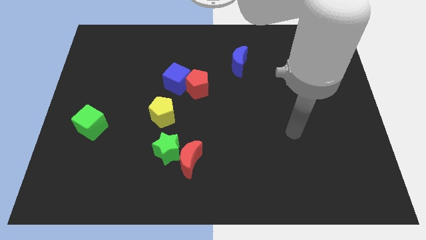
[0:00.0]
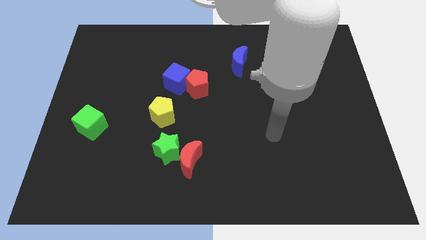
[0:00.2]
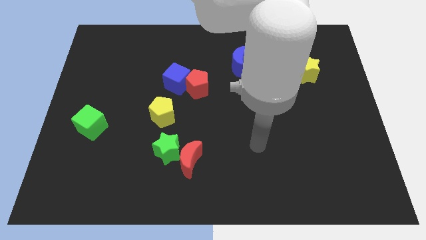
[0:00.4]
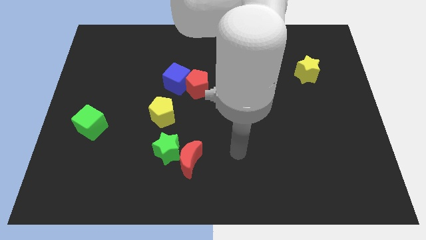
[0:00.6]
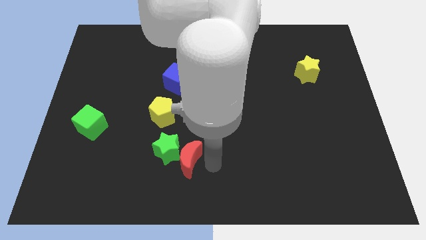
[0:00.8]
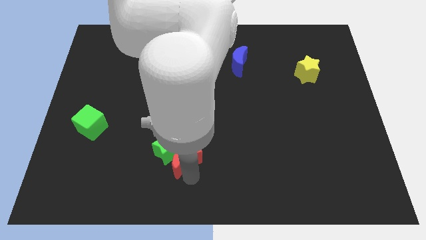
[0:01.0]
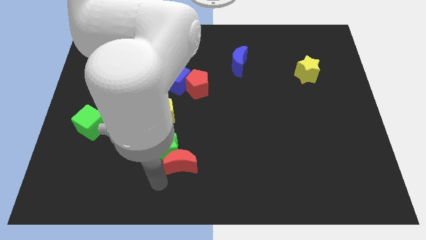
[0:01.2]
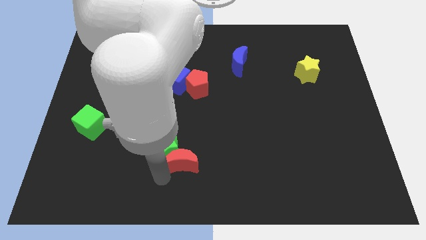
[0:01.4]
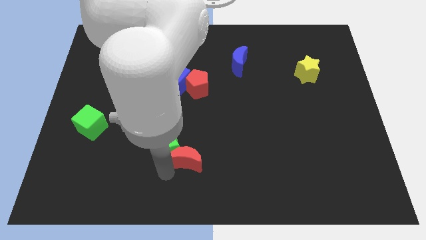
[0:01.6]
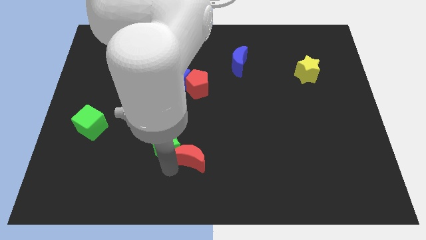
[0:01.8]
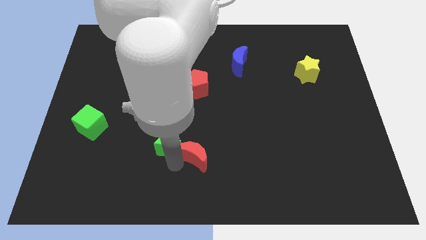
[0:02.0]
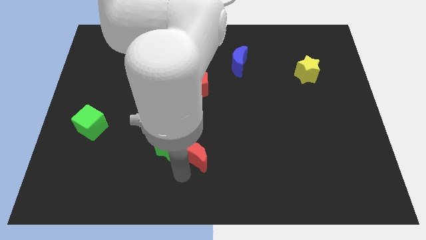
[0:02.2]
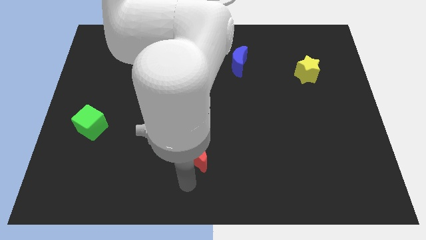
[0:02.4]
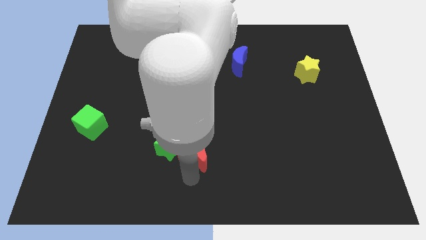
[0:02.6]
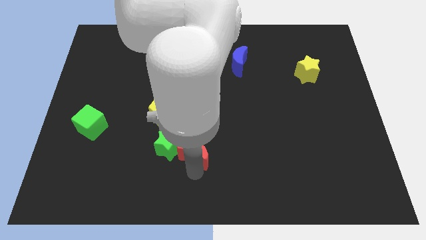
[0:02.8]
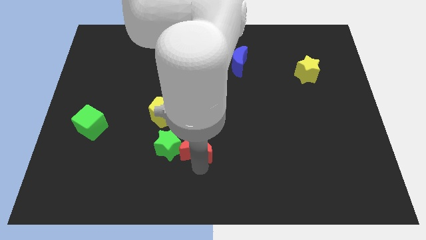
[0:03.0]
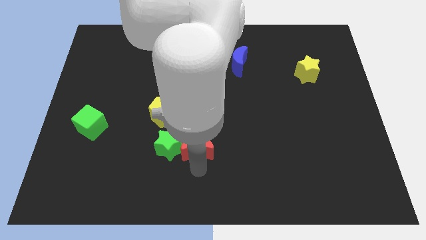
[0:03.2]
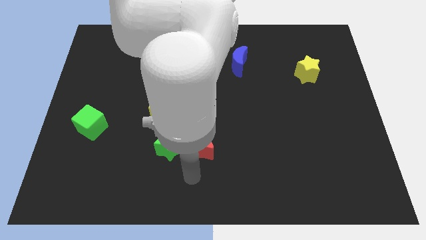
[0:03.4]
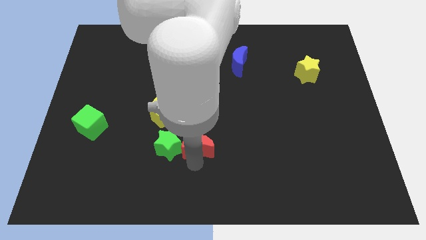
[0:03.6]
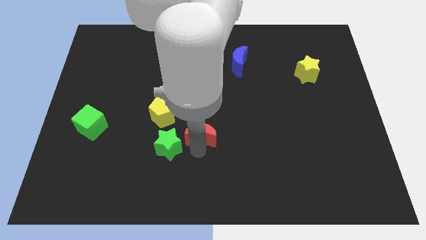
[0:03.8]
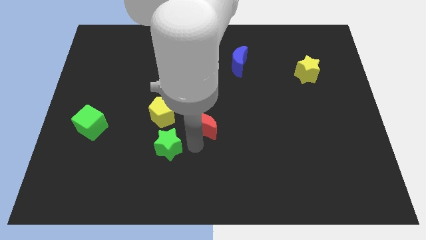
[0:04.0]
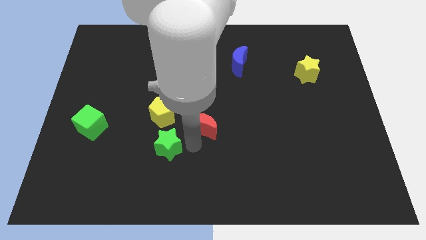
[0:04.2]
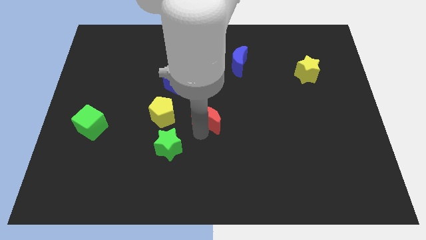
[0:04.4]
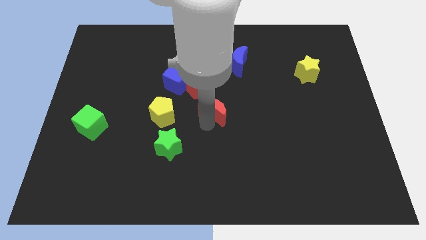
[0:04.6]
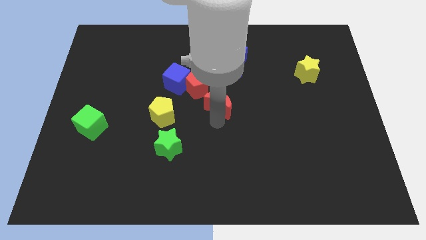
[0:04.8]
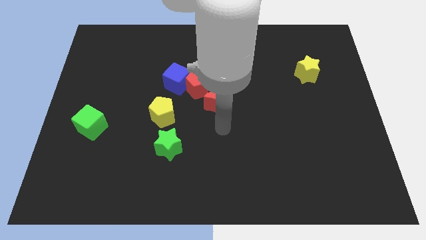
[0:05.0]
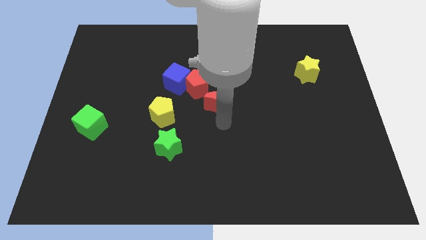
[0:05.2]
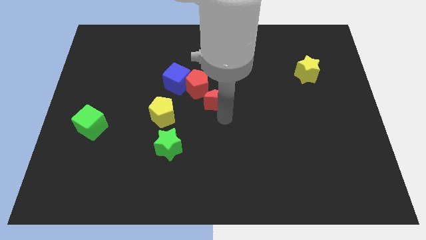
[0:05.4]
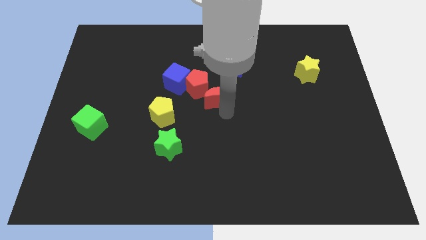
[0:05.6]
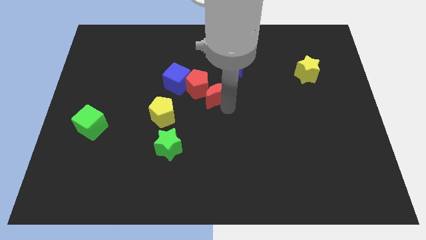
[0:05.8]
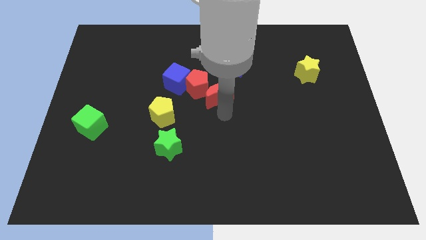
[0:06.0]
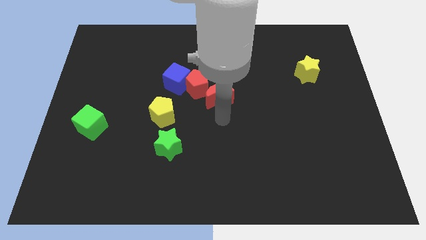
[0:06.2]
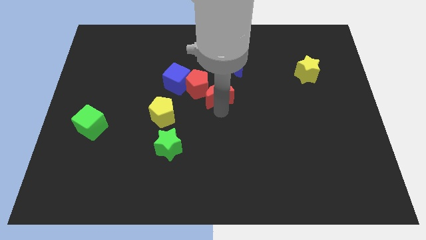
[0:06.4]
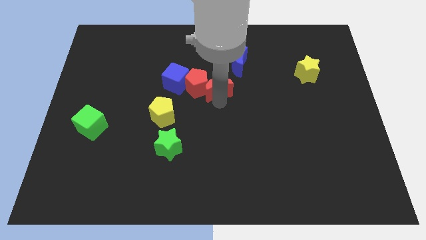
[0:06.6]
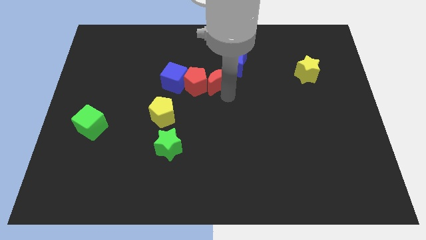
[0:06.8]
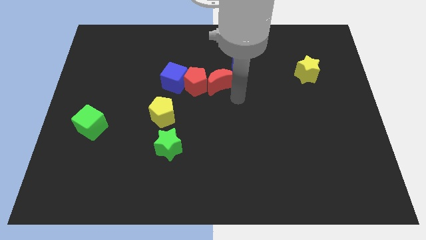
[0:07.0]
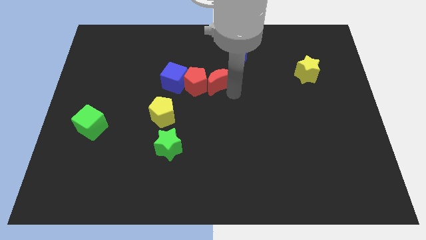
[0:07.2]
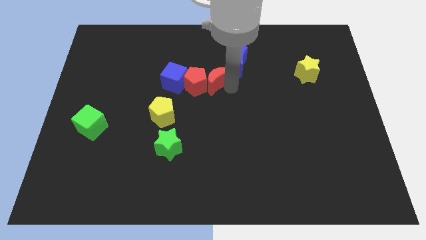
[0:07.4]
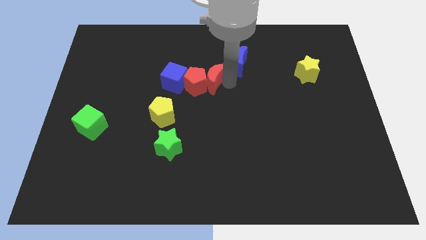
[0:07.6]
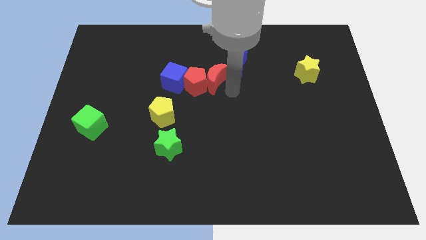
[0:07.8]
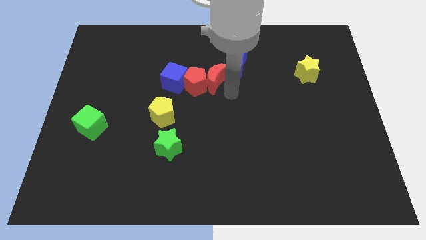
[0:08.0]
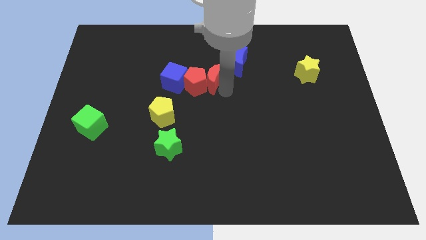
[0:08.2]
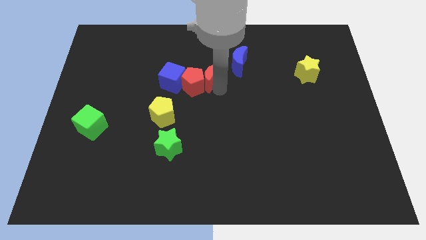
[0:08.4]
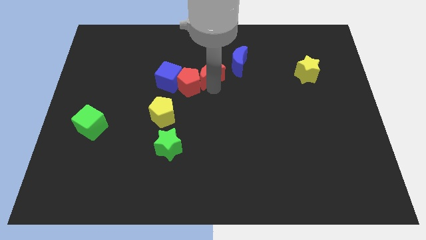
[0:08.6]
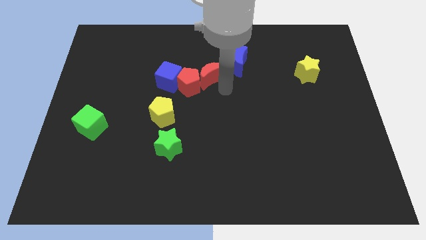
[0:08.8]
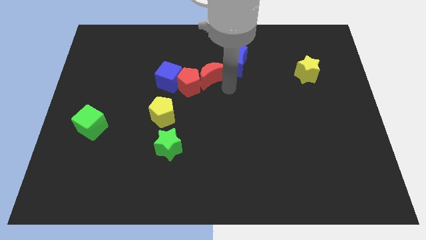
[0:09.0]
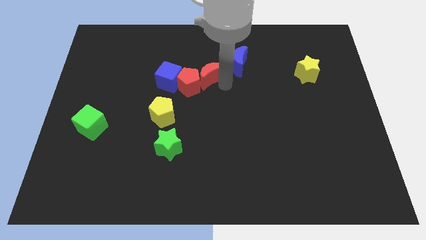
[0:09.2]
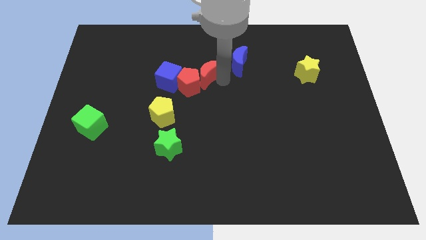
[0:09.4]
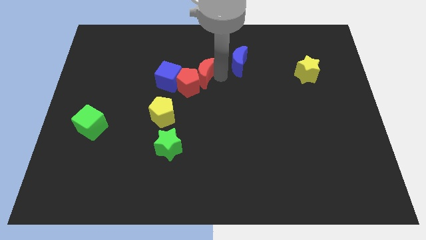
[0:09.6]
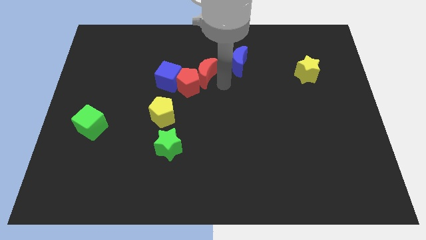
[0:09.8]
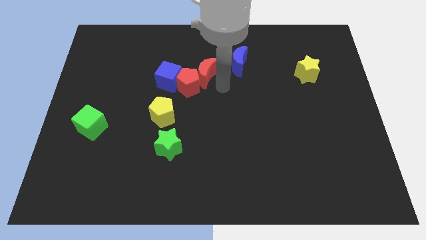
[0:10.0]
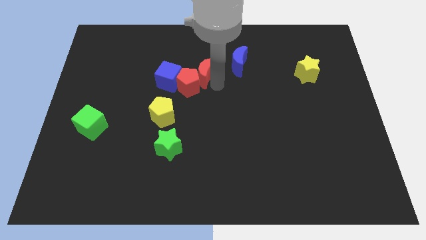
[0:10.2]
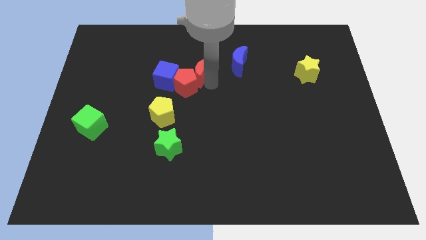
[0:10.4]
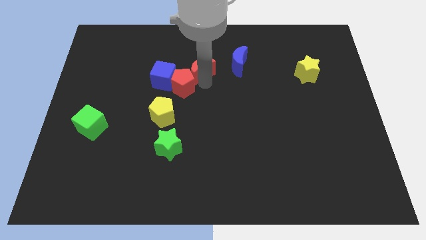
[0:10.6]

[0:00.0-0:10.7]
slide the red moon to the top right of the blue cube

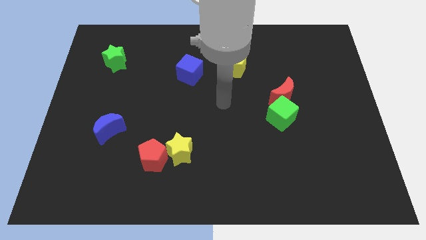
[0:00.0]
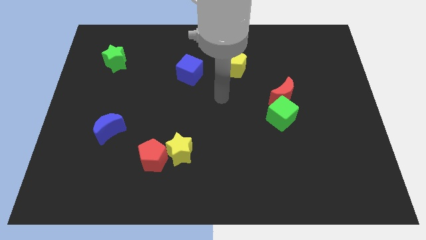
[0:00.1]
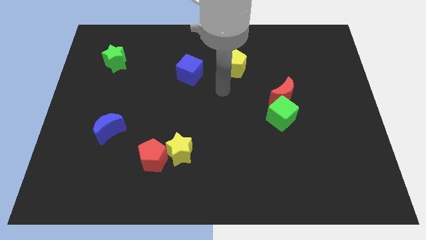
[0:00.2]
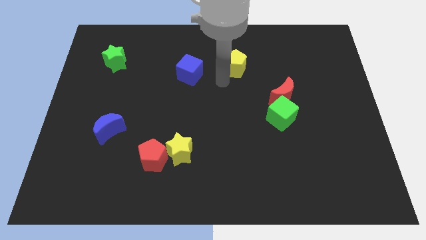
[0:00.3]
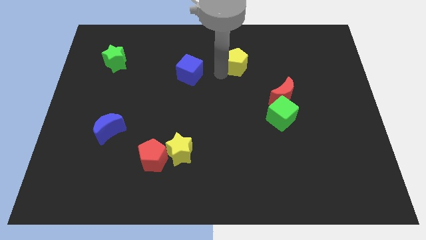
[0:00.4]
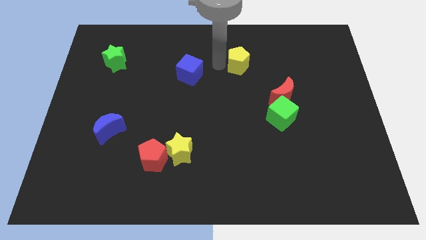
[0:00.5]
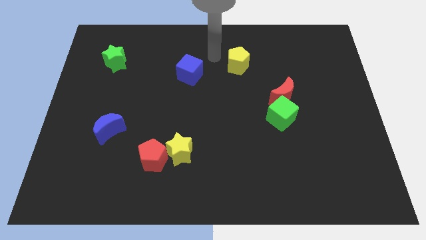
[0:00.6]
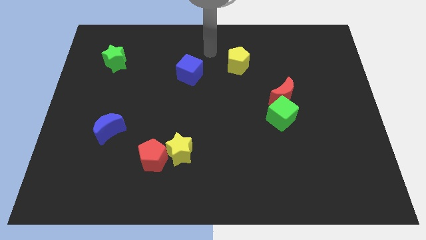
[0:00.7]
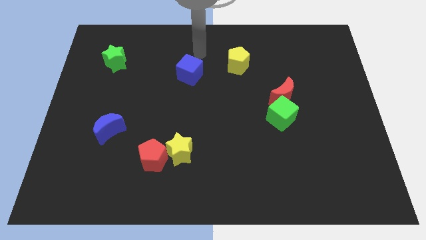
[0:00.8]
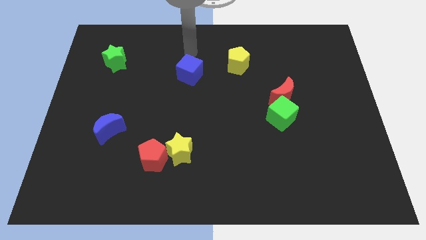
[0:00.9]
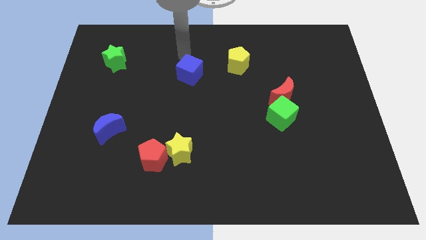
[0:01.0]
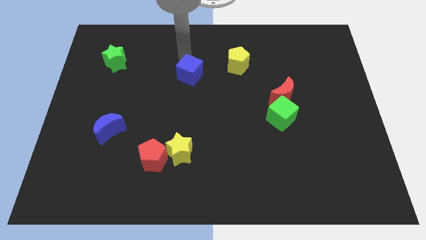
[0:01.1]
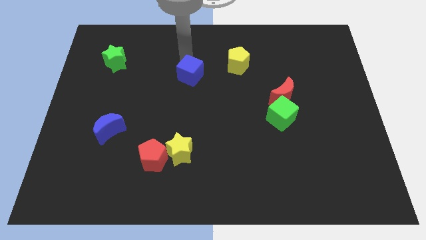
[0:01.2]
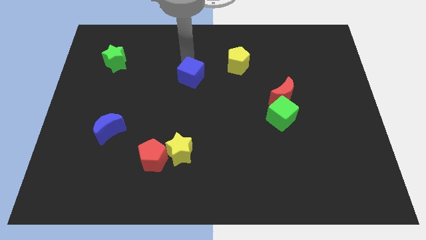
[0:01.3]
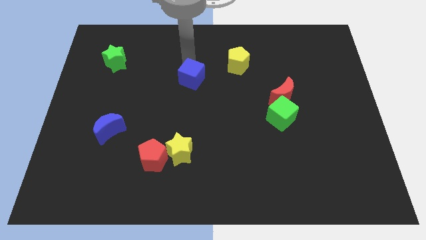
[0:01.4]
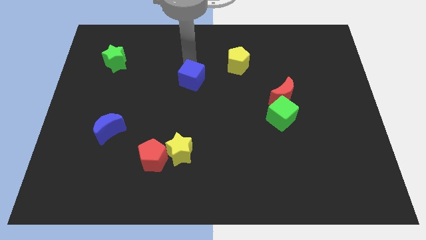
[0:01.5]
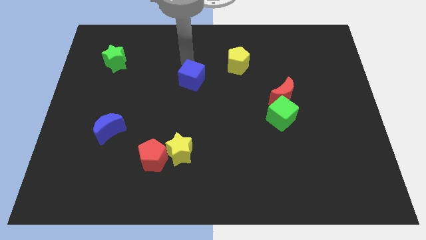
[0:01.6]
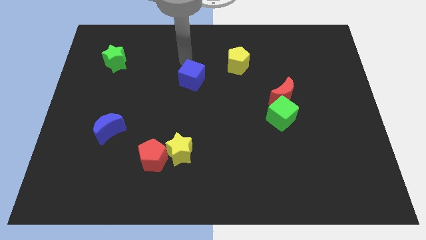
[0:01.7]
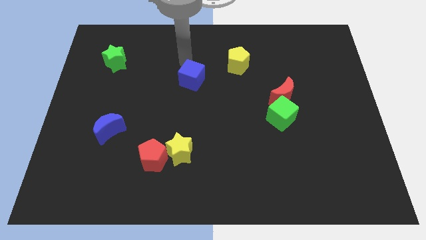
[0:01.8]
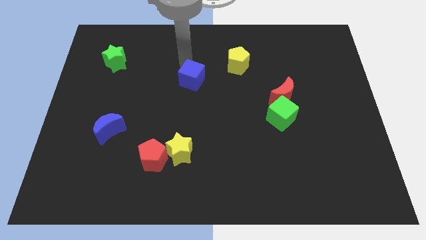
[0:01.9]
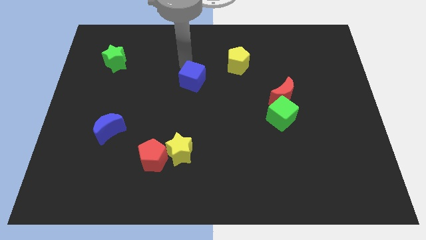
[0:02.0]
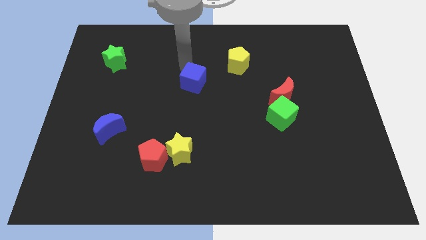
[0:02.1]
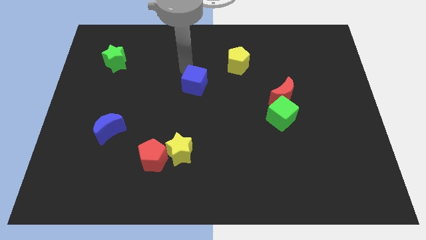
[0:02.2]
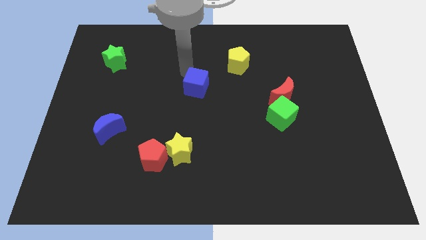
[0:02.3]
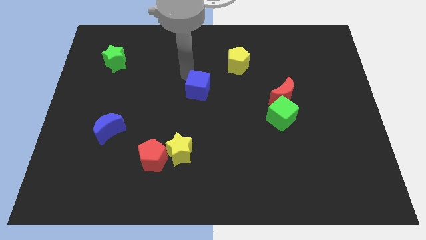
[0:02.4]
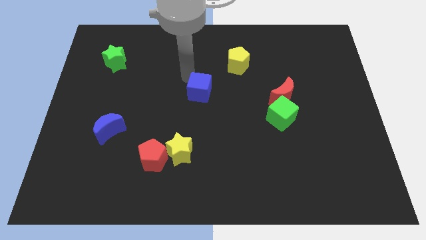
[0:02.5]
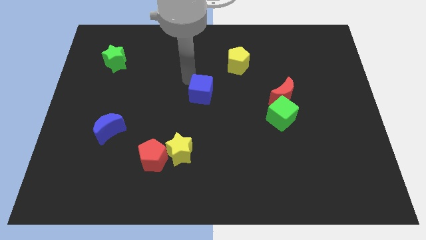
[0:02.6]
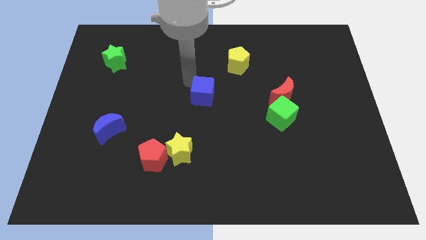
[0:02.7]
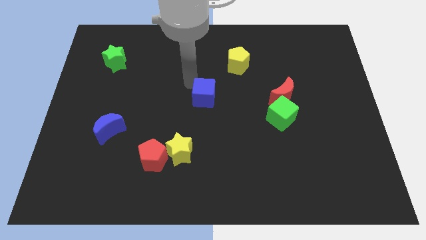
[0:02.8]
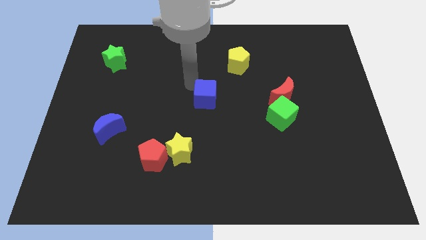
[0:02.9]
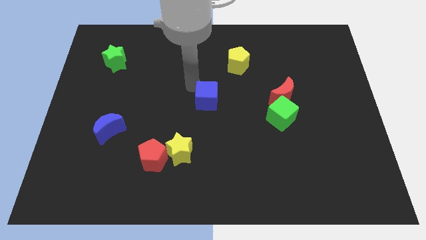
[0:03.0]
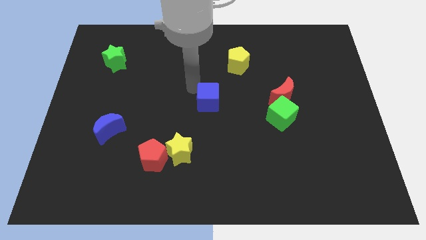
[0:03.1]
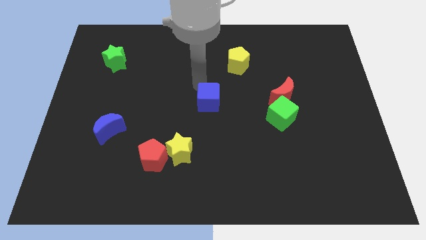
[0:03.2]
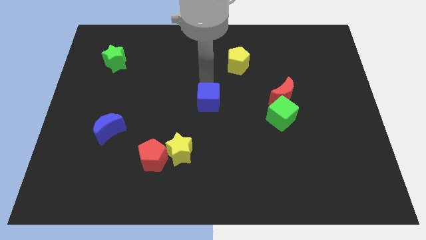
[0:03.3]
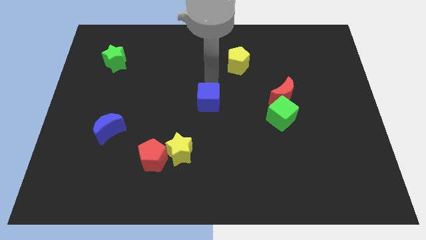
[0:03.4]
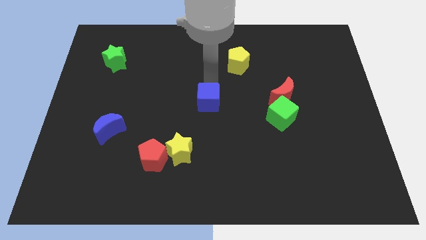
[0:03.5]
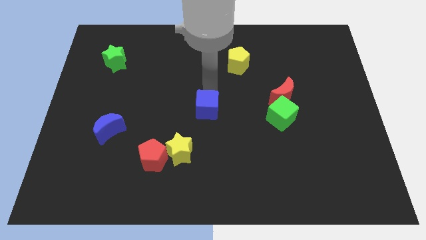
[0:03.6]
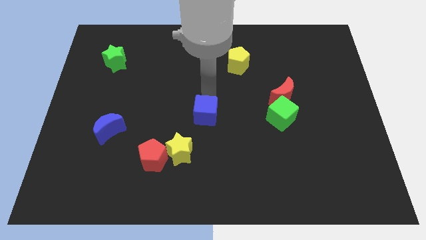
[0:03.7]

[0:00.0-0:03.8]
put the blue cube to the top right side of the yellow star
